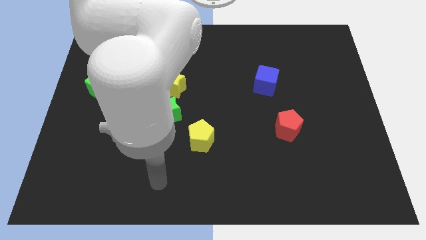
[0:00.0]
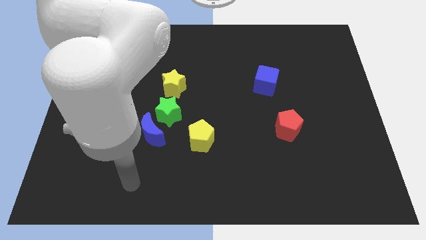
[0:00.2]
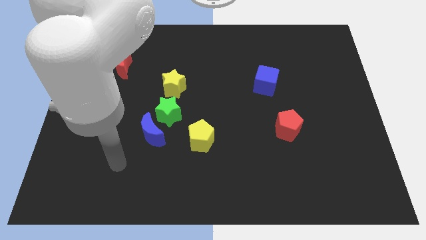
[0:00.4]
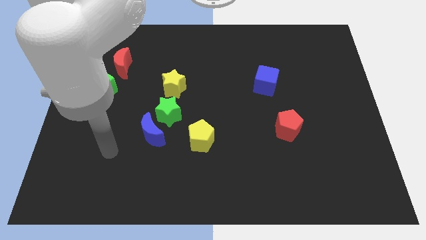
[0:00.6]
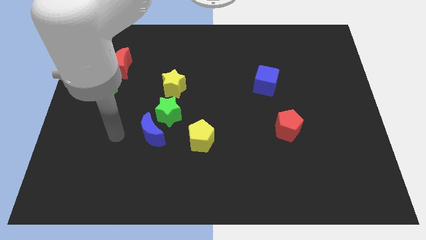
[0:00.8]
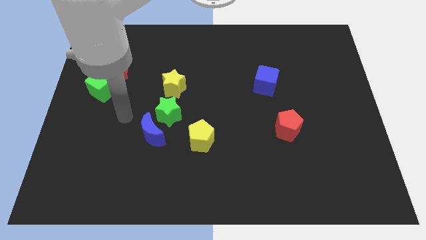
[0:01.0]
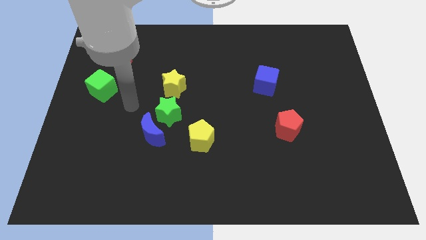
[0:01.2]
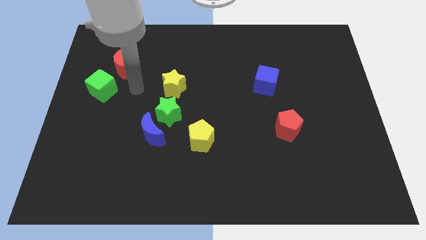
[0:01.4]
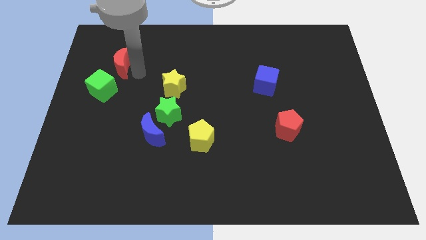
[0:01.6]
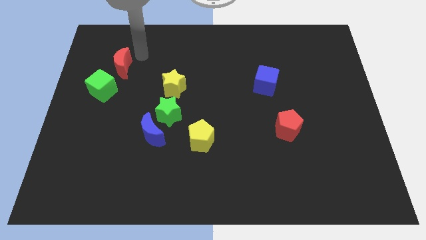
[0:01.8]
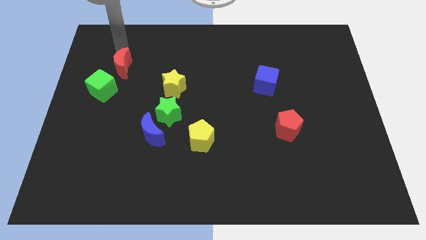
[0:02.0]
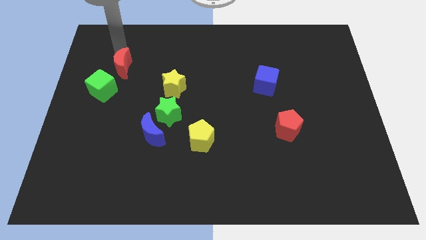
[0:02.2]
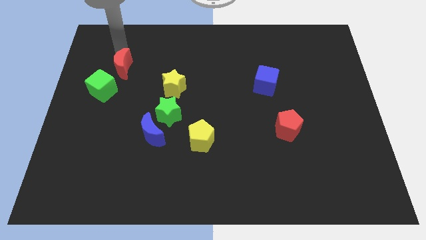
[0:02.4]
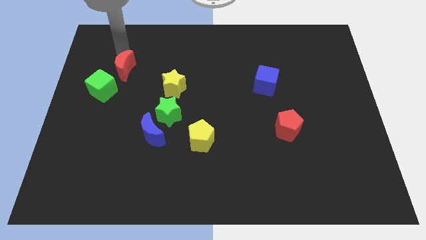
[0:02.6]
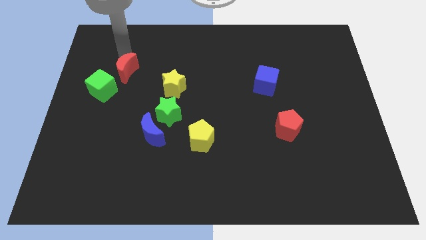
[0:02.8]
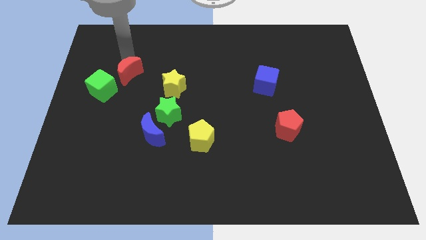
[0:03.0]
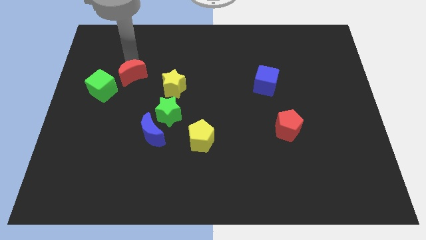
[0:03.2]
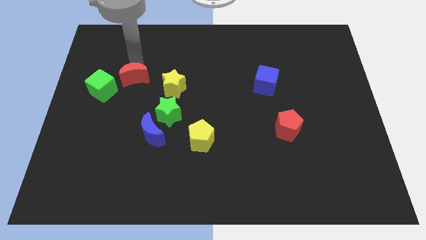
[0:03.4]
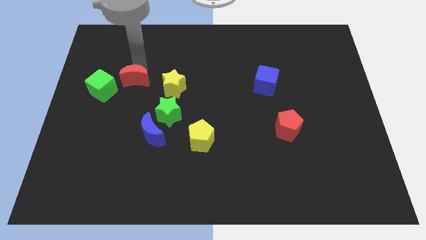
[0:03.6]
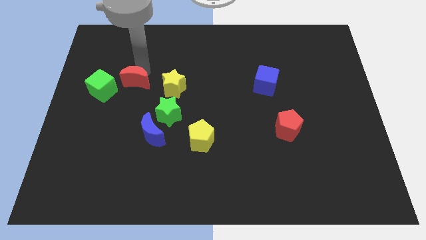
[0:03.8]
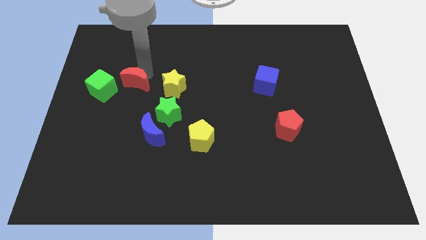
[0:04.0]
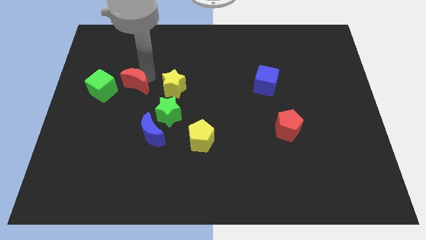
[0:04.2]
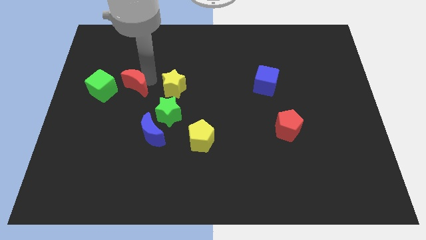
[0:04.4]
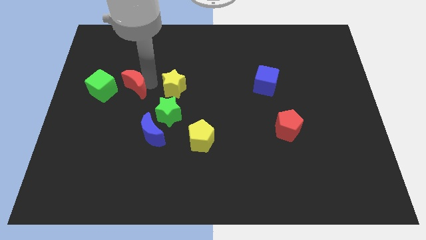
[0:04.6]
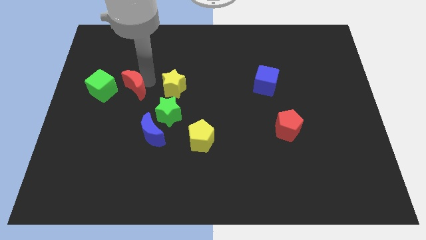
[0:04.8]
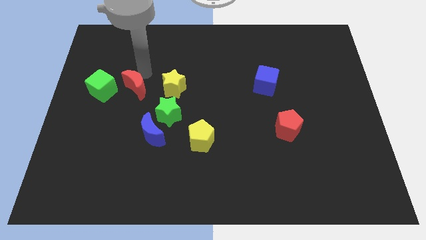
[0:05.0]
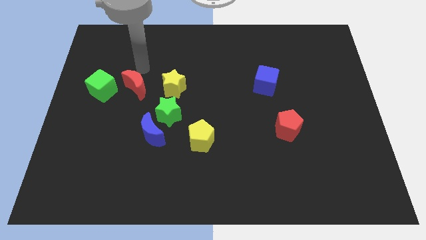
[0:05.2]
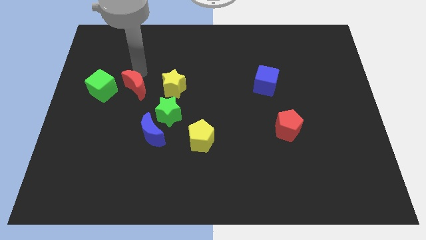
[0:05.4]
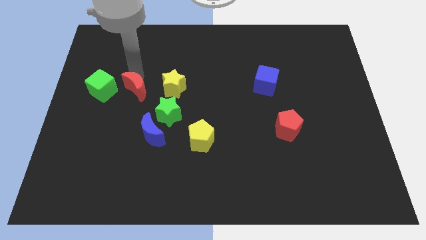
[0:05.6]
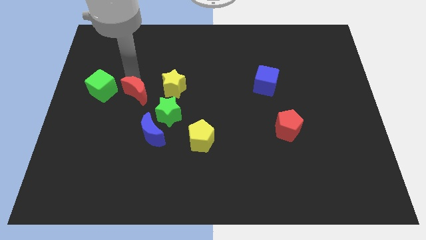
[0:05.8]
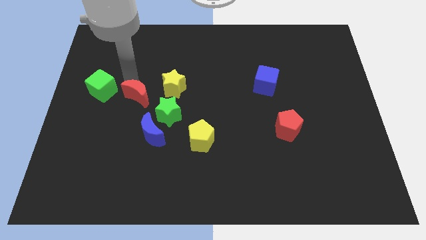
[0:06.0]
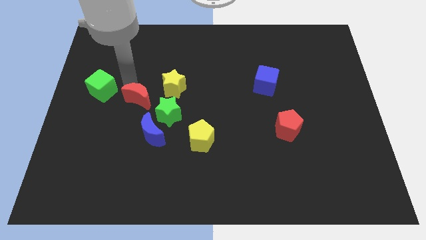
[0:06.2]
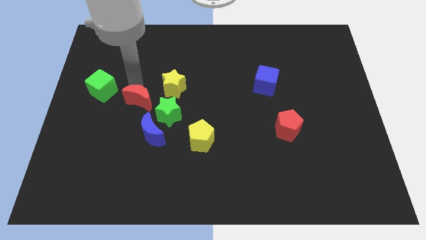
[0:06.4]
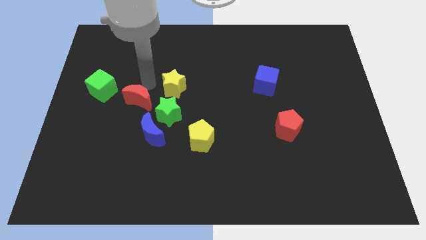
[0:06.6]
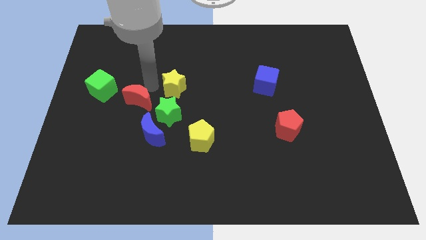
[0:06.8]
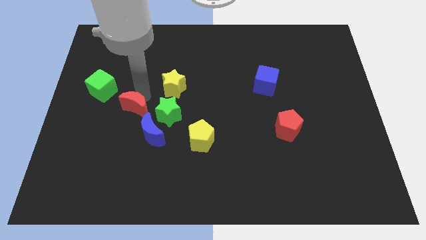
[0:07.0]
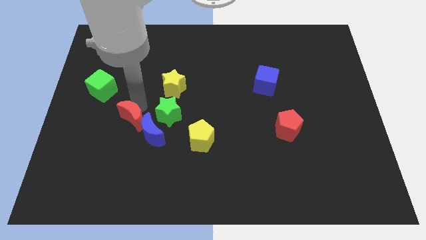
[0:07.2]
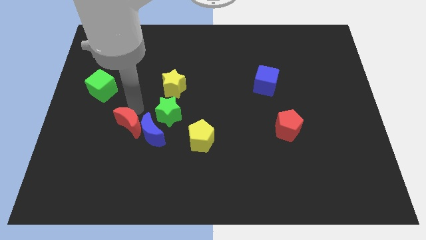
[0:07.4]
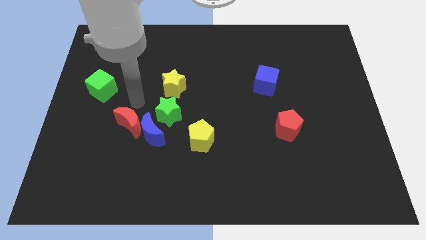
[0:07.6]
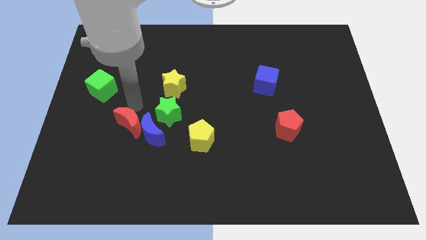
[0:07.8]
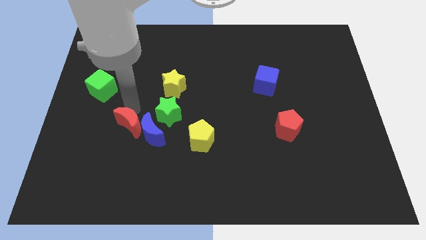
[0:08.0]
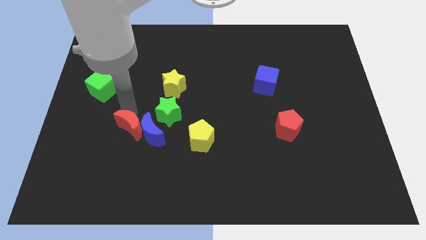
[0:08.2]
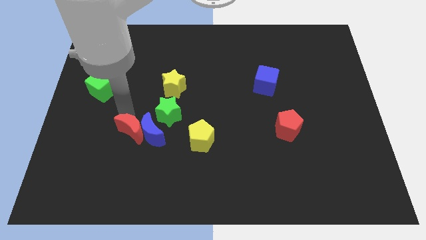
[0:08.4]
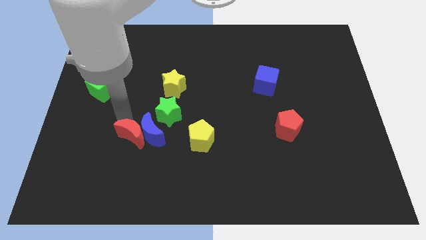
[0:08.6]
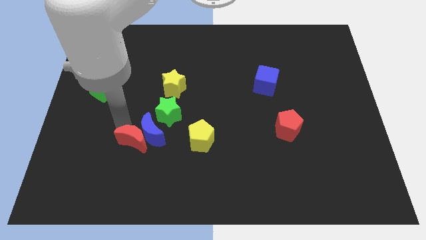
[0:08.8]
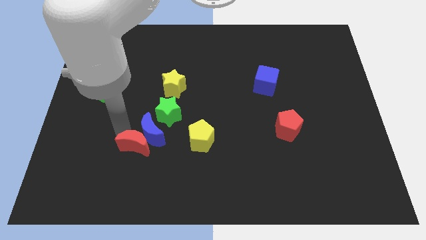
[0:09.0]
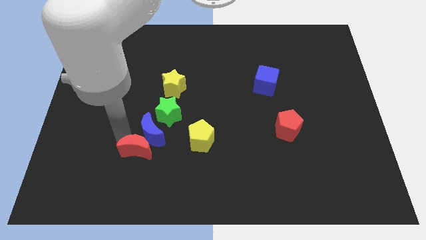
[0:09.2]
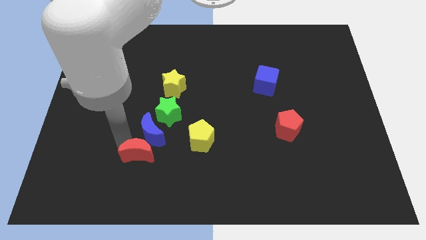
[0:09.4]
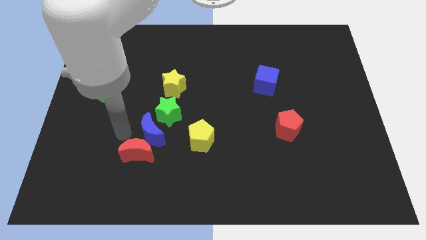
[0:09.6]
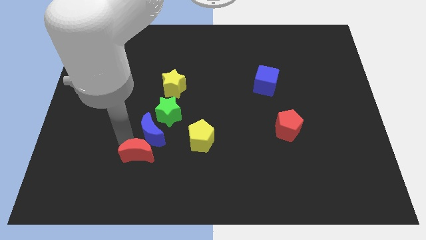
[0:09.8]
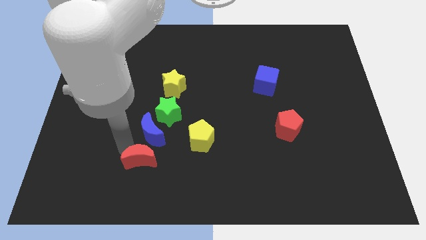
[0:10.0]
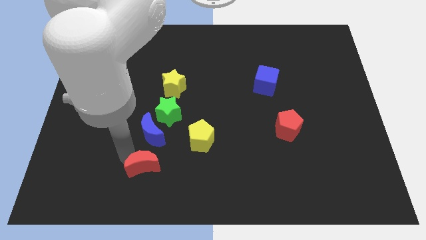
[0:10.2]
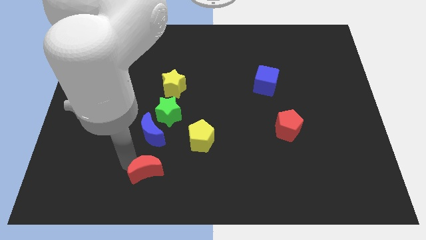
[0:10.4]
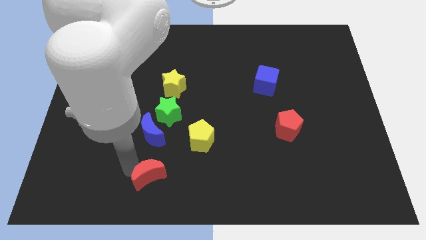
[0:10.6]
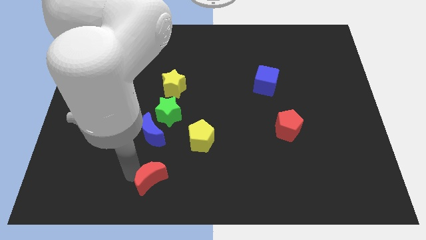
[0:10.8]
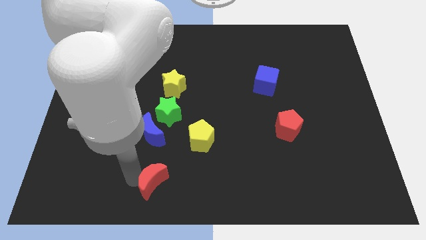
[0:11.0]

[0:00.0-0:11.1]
slide the red moon to the bottom

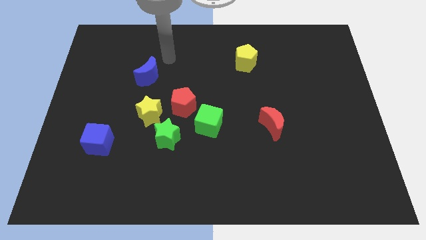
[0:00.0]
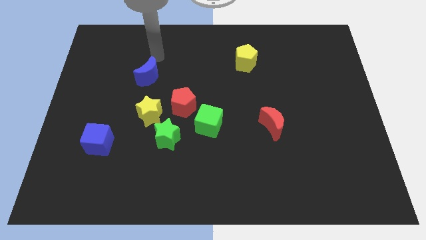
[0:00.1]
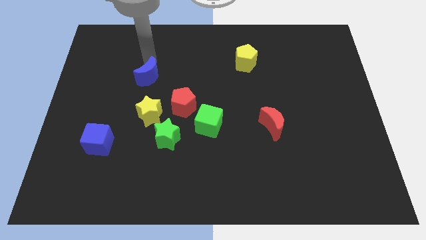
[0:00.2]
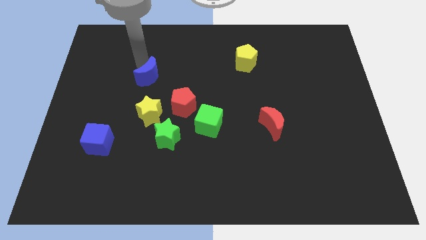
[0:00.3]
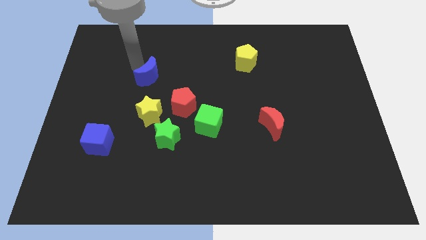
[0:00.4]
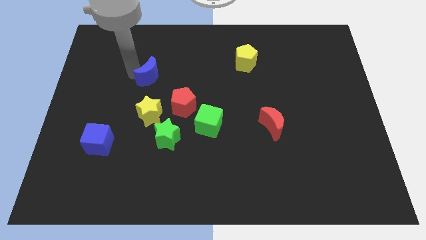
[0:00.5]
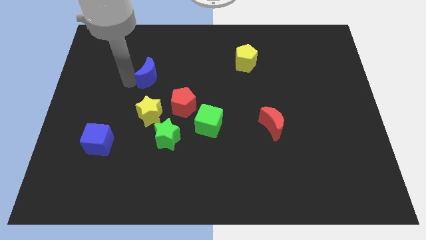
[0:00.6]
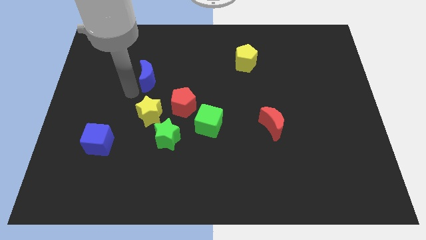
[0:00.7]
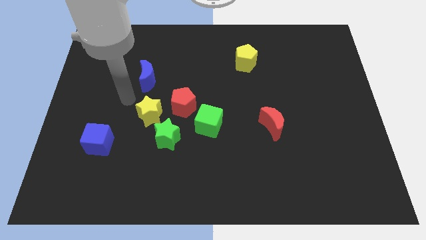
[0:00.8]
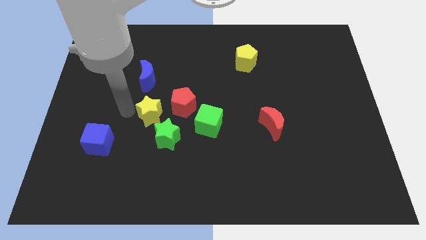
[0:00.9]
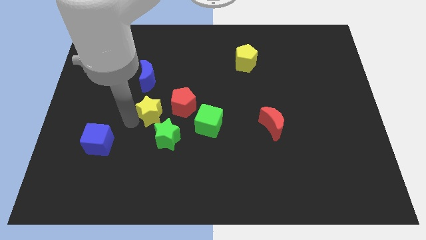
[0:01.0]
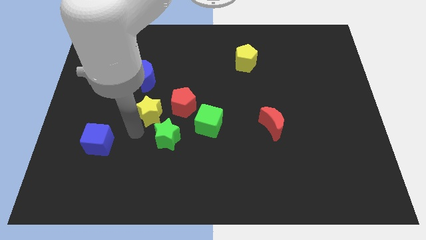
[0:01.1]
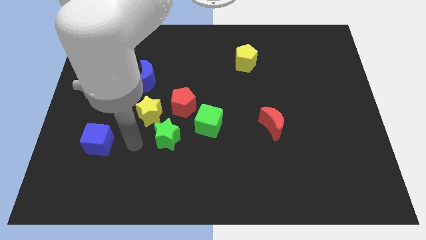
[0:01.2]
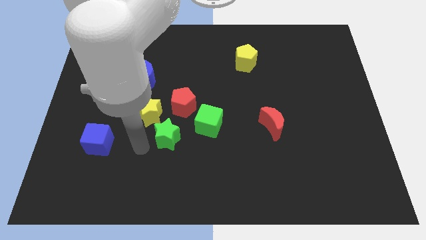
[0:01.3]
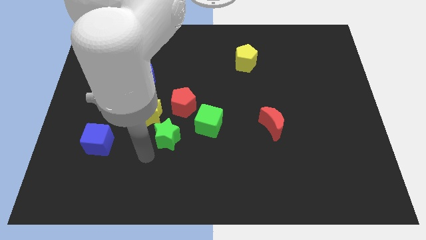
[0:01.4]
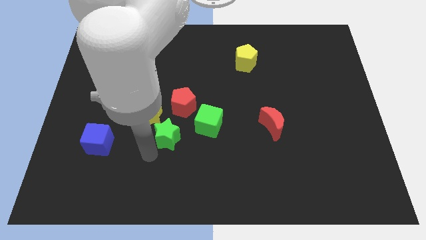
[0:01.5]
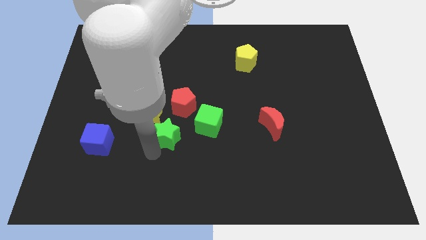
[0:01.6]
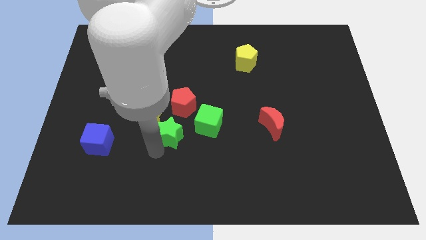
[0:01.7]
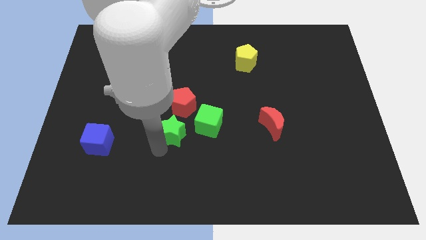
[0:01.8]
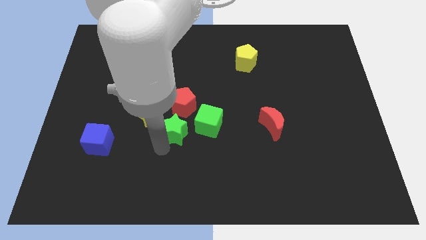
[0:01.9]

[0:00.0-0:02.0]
slide the green star to the center of the board
